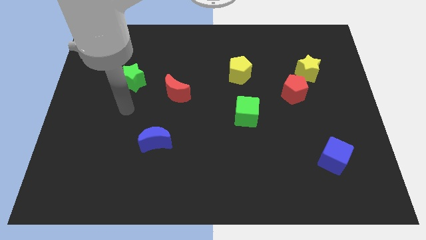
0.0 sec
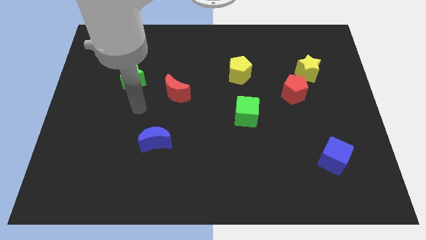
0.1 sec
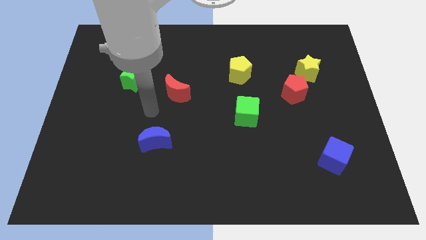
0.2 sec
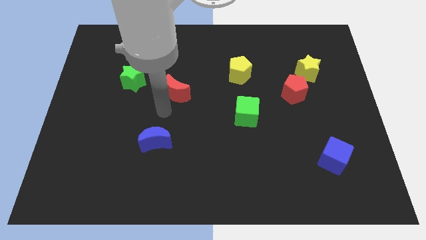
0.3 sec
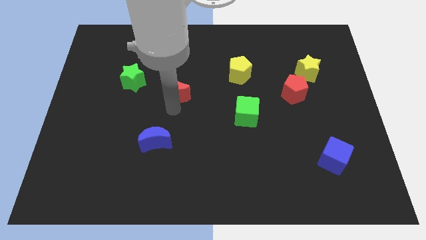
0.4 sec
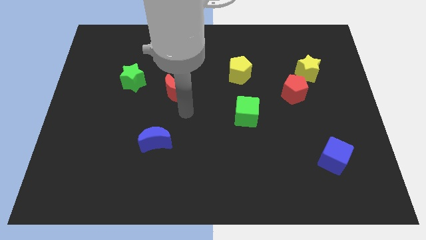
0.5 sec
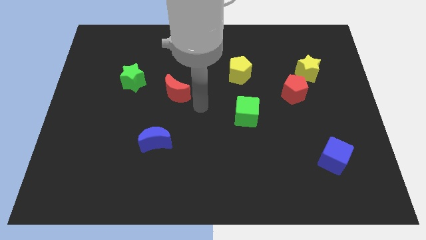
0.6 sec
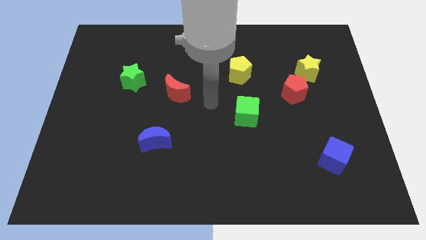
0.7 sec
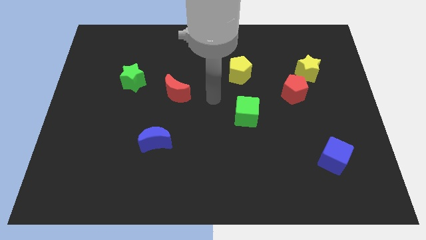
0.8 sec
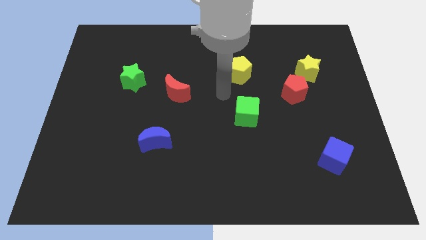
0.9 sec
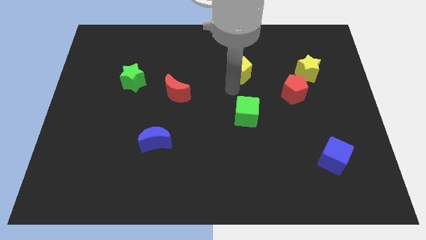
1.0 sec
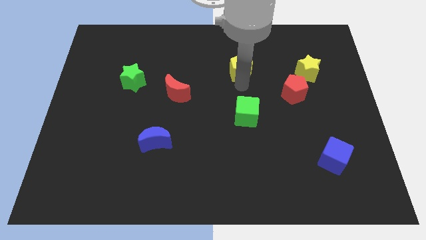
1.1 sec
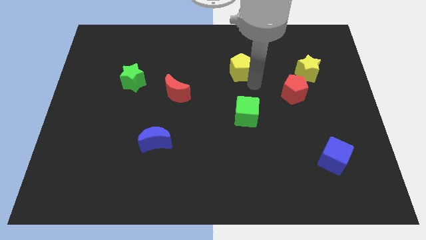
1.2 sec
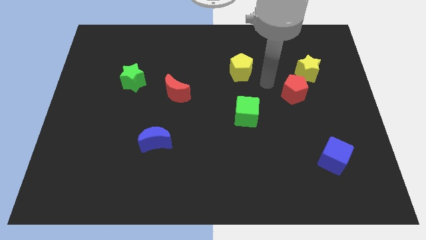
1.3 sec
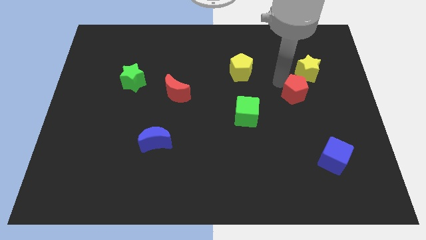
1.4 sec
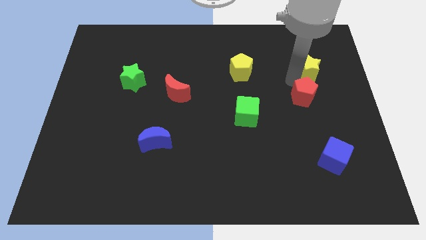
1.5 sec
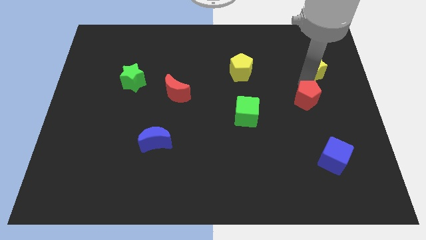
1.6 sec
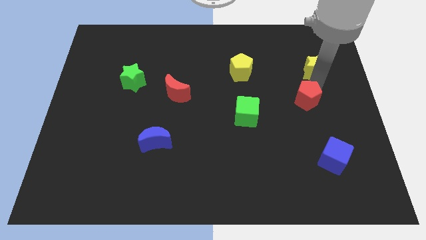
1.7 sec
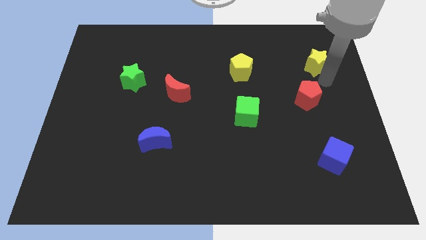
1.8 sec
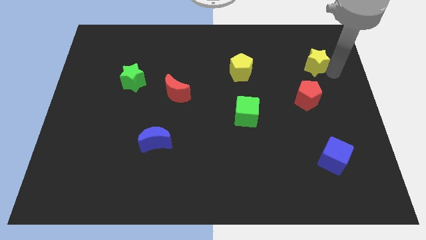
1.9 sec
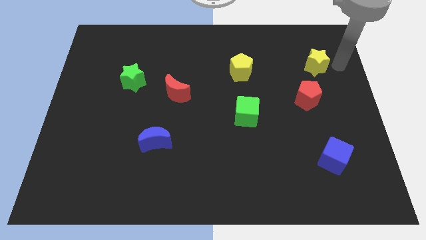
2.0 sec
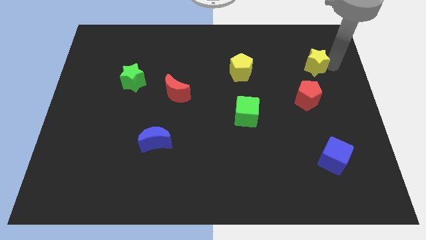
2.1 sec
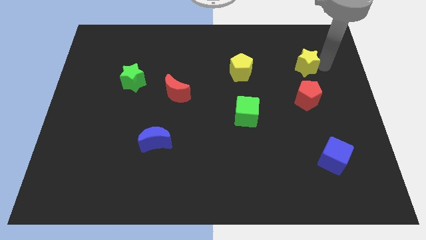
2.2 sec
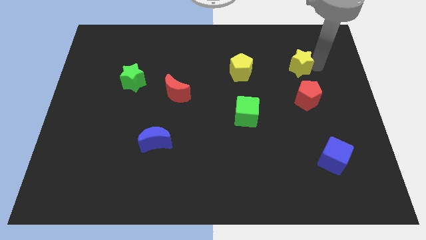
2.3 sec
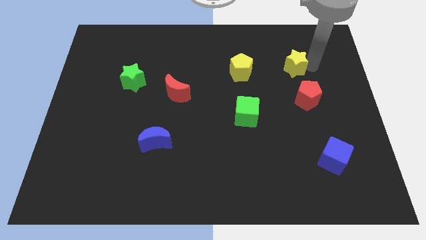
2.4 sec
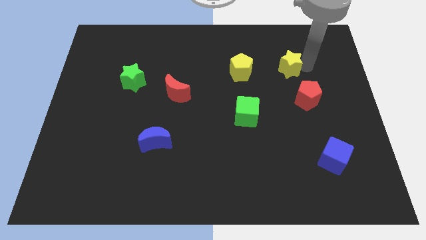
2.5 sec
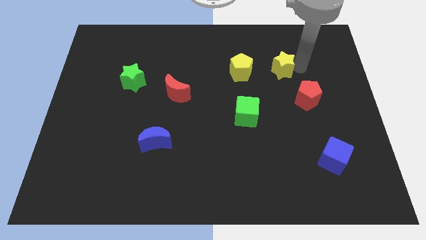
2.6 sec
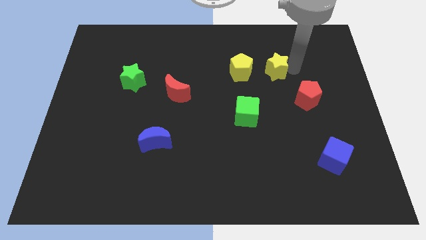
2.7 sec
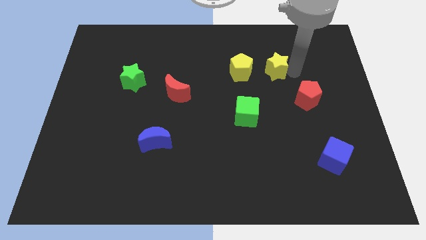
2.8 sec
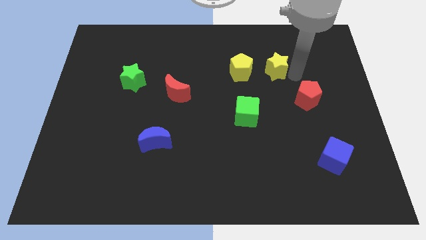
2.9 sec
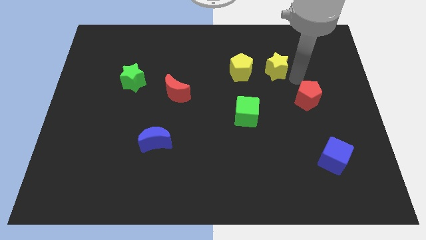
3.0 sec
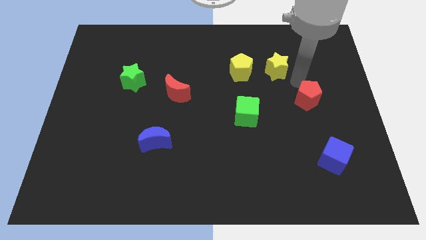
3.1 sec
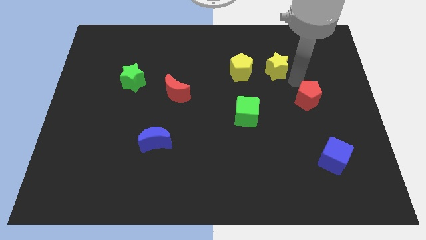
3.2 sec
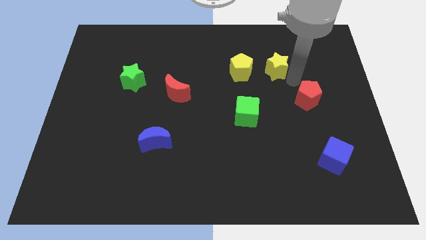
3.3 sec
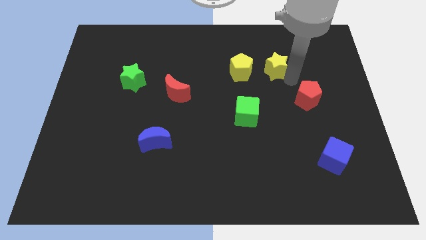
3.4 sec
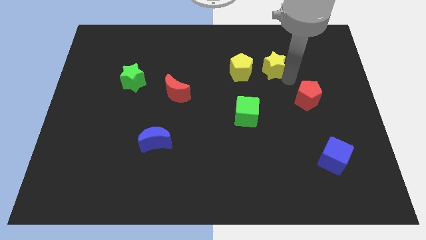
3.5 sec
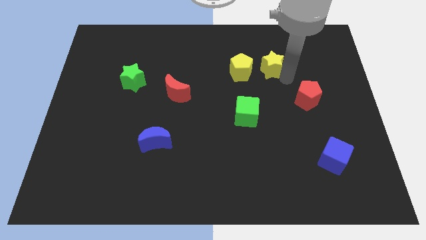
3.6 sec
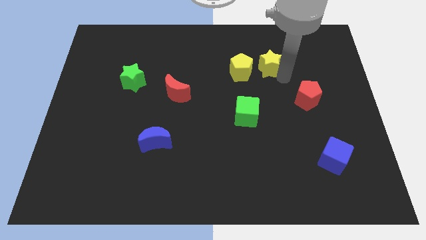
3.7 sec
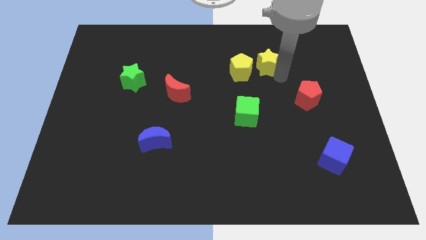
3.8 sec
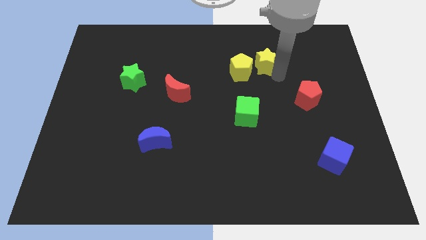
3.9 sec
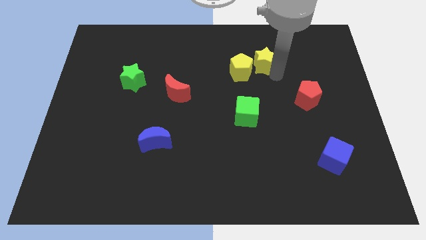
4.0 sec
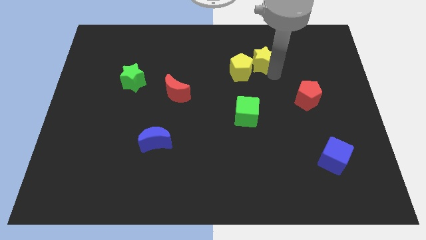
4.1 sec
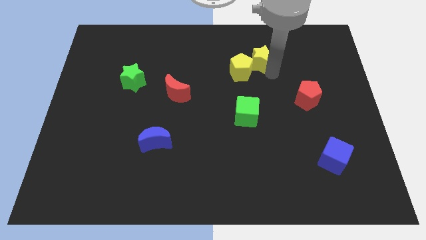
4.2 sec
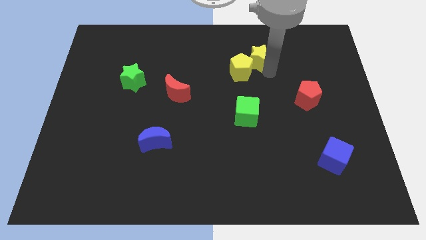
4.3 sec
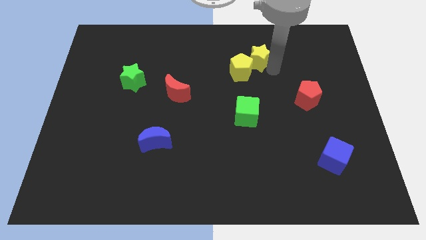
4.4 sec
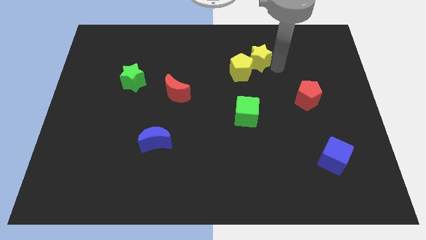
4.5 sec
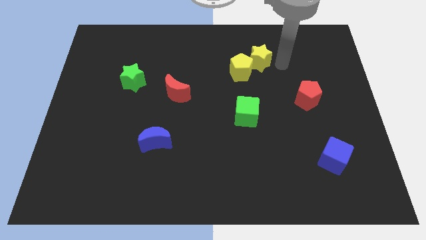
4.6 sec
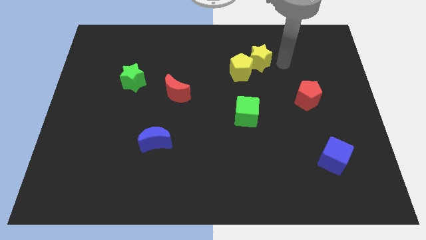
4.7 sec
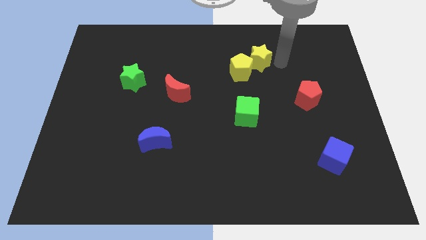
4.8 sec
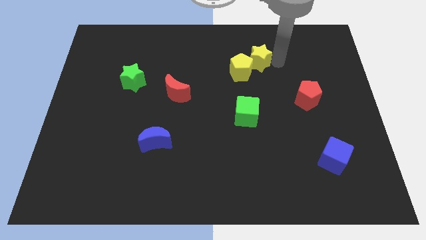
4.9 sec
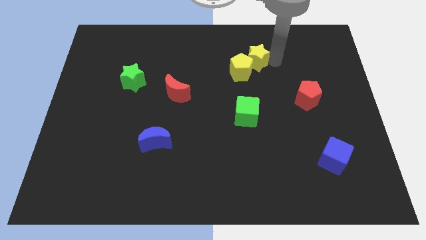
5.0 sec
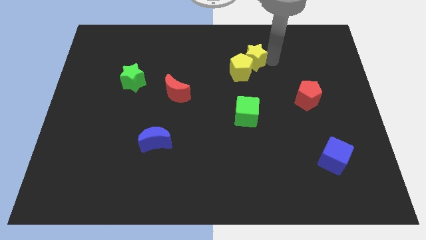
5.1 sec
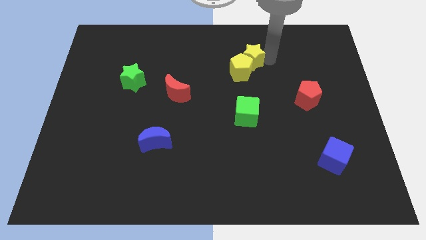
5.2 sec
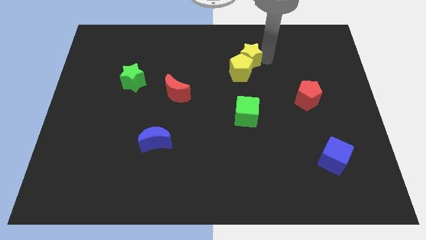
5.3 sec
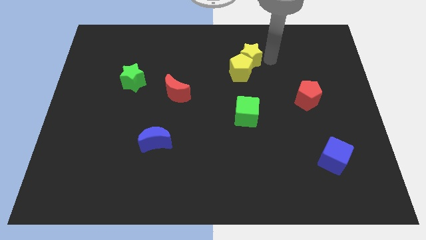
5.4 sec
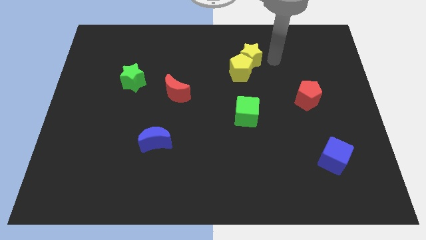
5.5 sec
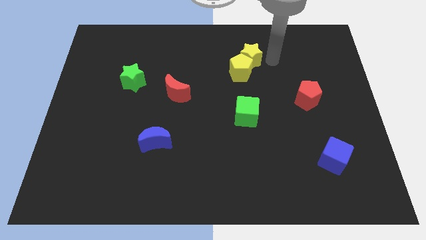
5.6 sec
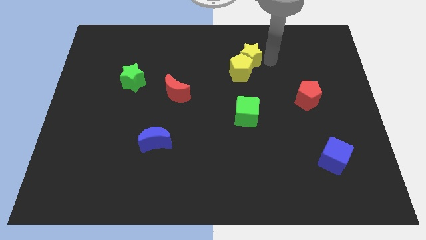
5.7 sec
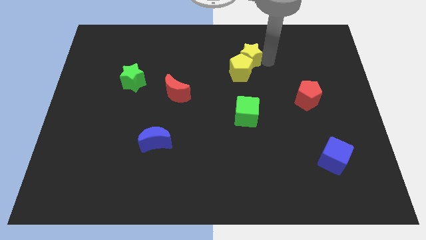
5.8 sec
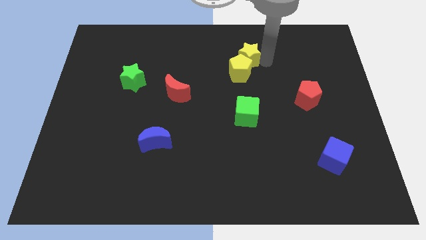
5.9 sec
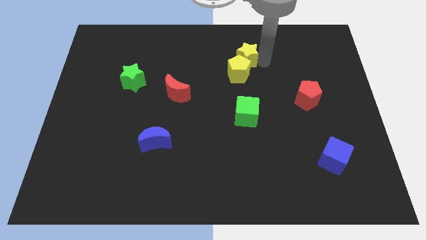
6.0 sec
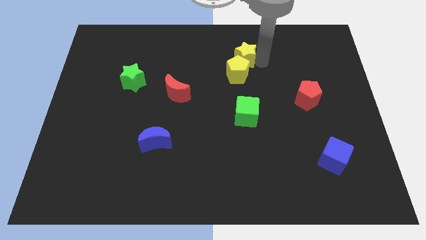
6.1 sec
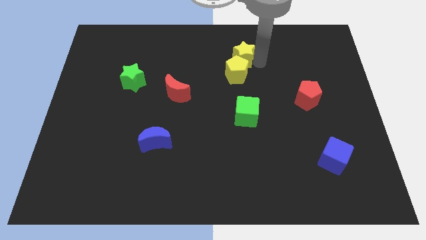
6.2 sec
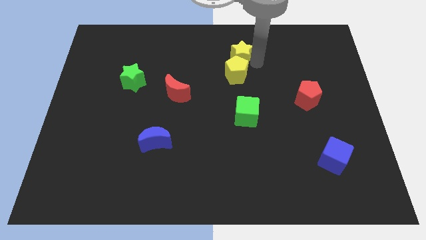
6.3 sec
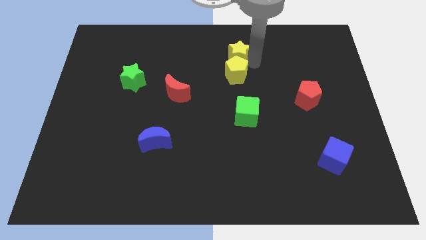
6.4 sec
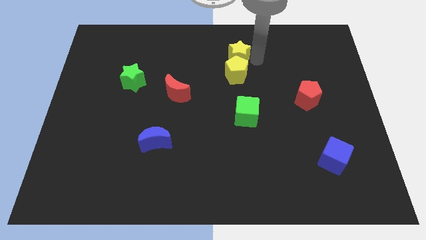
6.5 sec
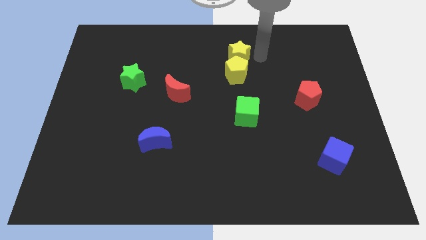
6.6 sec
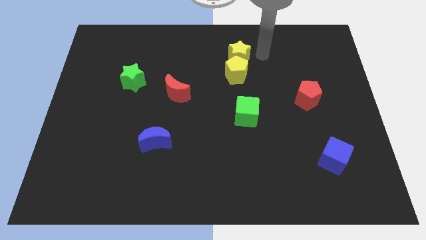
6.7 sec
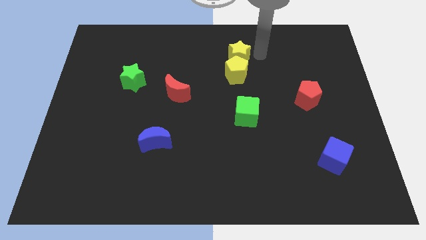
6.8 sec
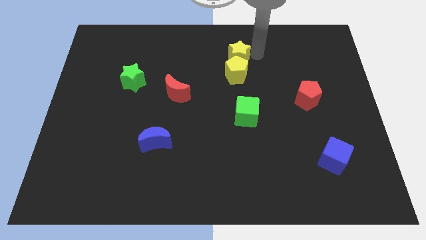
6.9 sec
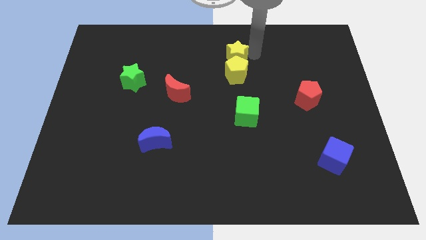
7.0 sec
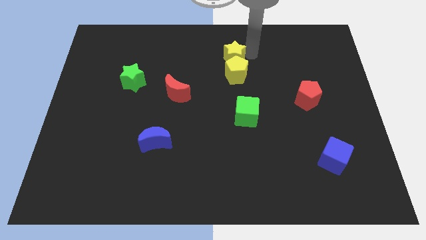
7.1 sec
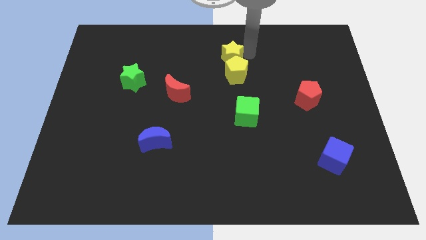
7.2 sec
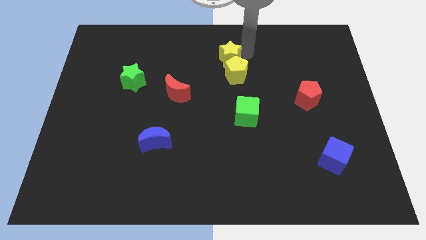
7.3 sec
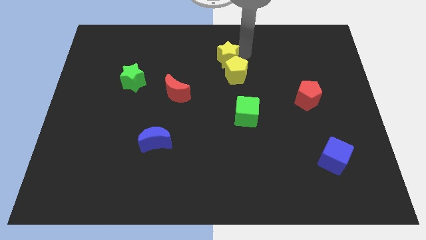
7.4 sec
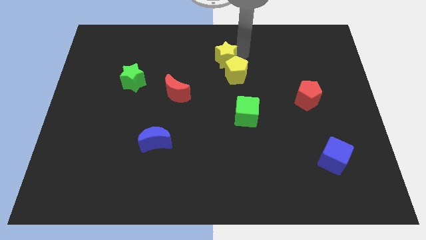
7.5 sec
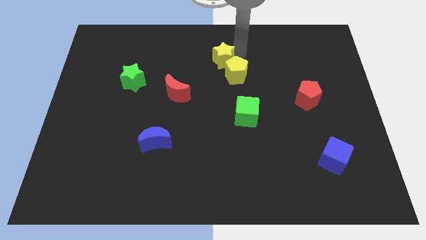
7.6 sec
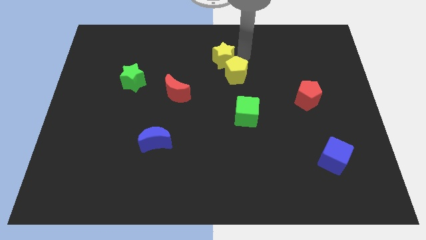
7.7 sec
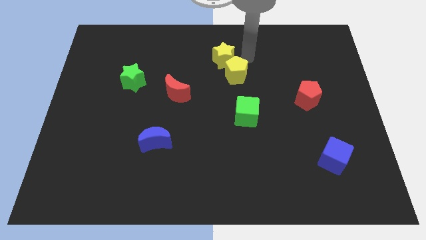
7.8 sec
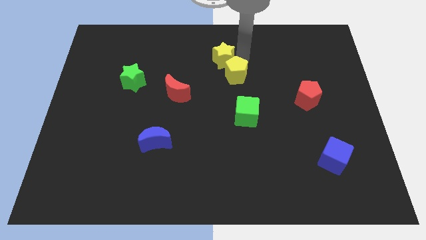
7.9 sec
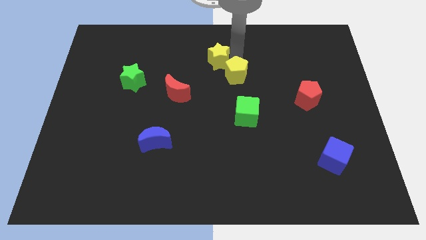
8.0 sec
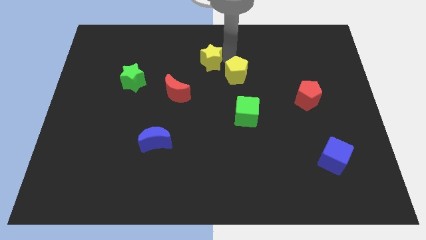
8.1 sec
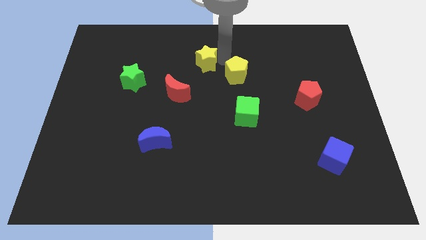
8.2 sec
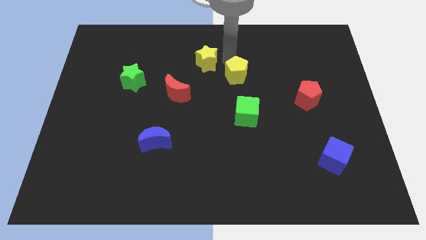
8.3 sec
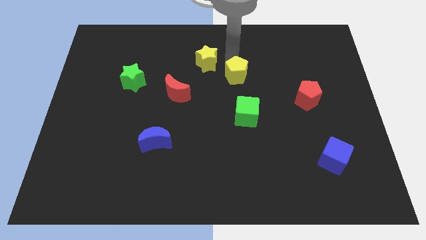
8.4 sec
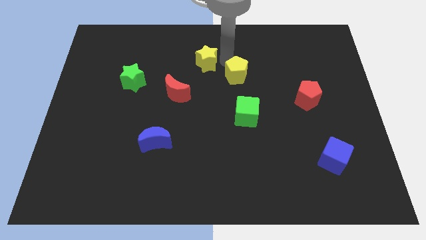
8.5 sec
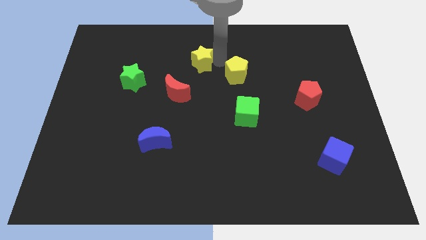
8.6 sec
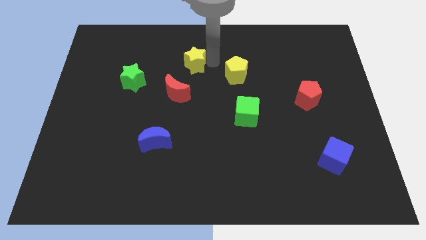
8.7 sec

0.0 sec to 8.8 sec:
put the yellow star to the top side of the red moon
